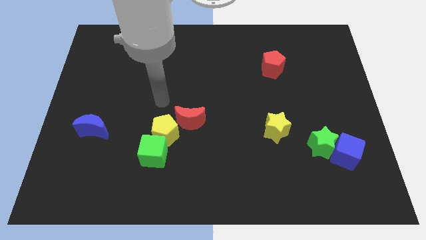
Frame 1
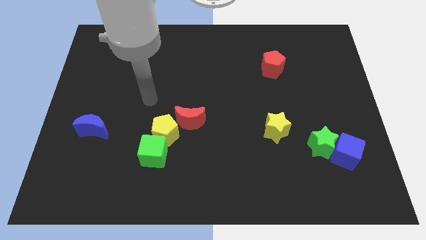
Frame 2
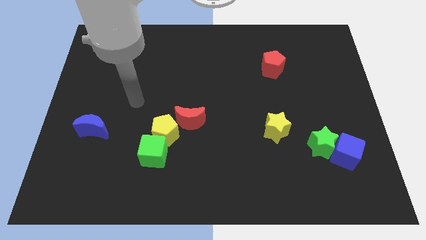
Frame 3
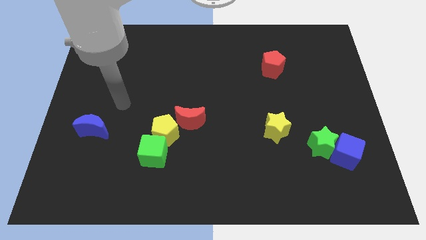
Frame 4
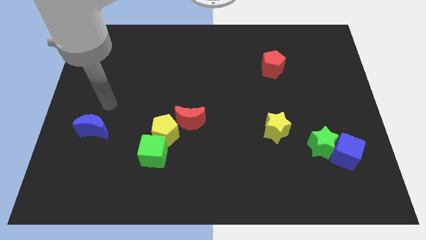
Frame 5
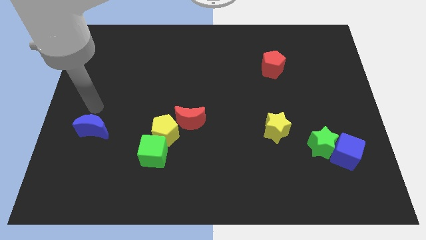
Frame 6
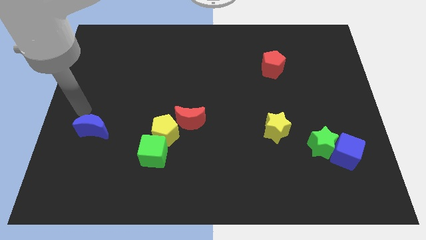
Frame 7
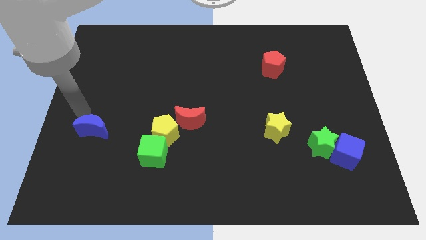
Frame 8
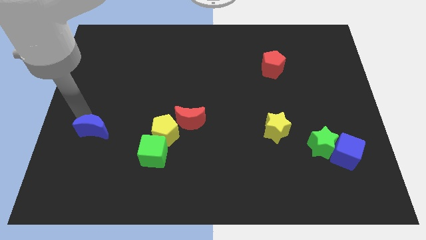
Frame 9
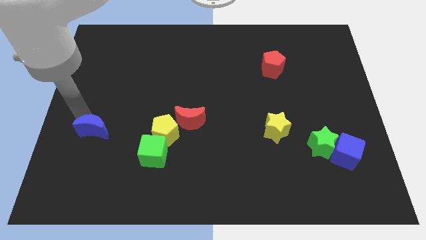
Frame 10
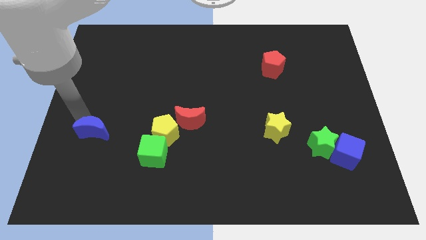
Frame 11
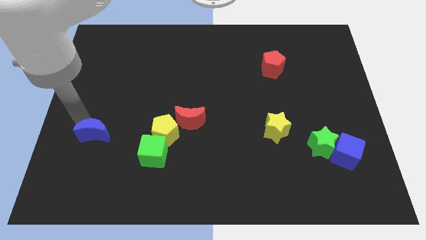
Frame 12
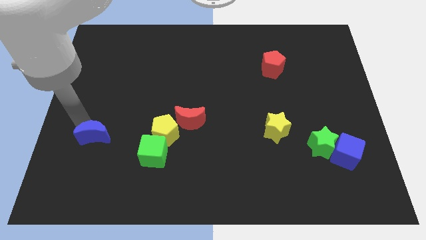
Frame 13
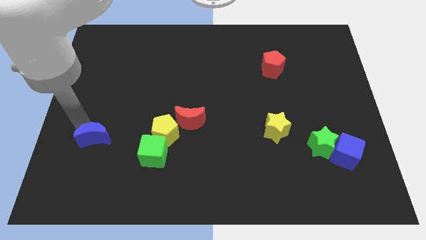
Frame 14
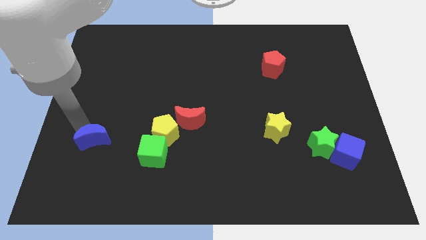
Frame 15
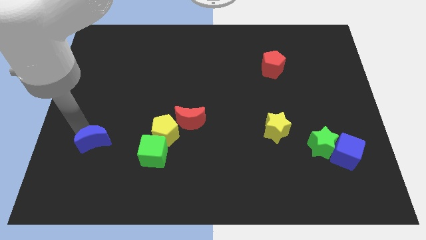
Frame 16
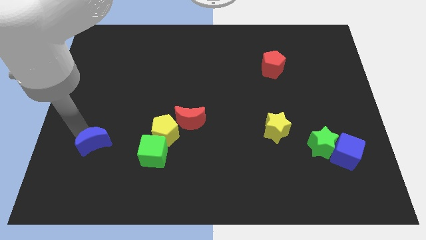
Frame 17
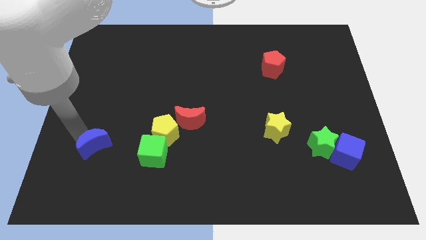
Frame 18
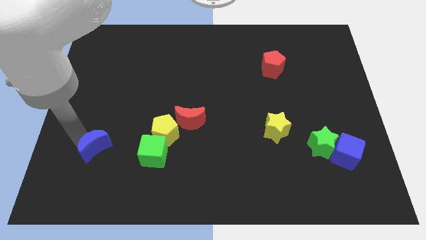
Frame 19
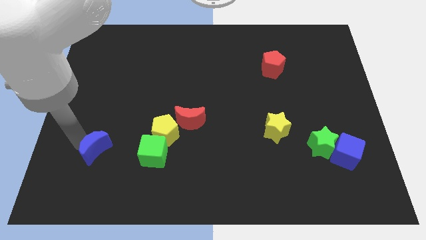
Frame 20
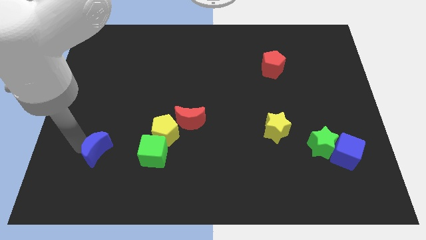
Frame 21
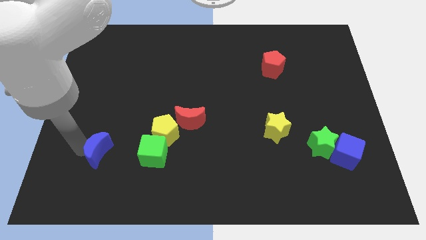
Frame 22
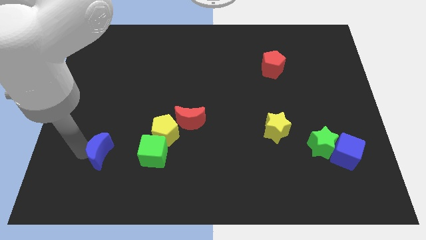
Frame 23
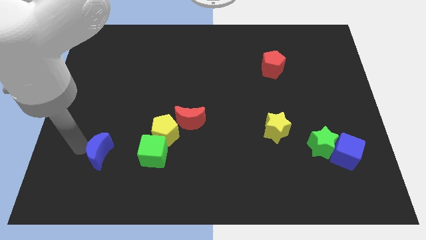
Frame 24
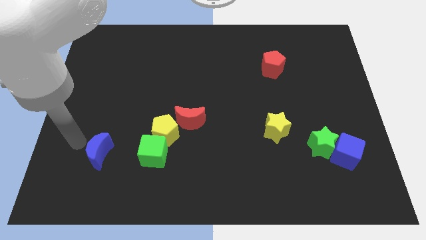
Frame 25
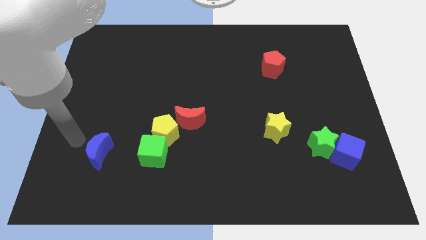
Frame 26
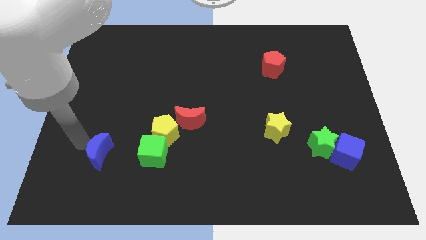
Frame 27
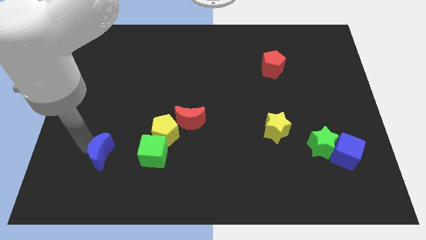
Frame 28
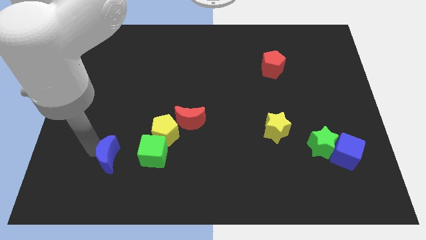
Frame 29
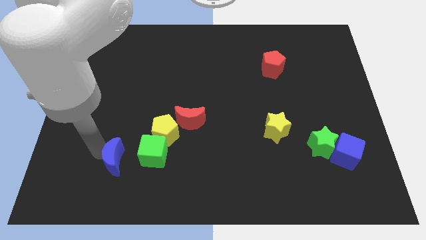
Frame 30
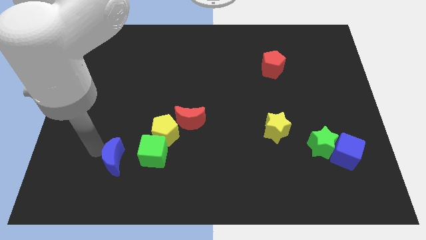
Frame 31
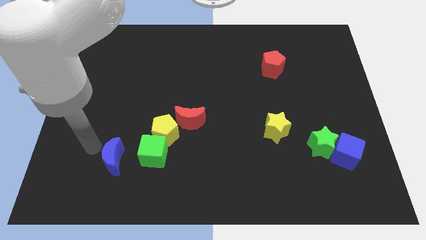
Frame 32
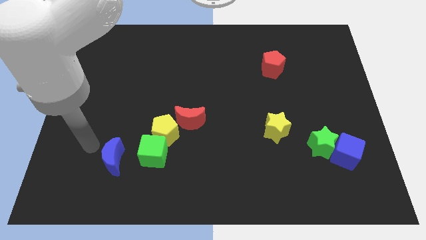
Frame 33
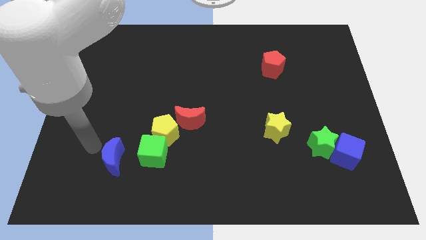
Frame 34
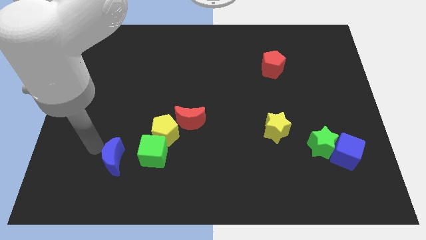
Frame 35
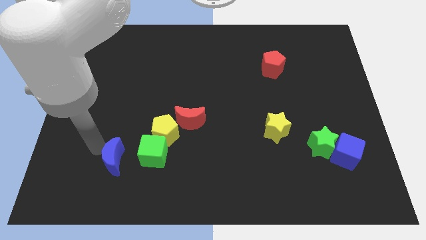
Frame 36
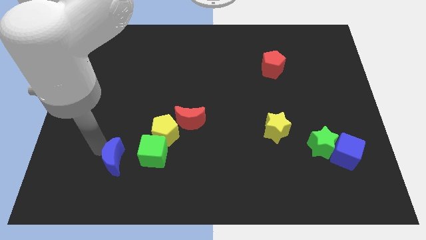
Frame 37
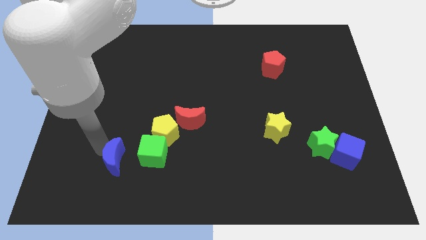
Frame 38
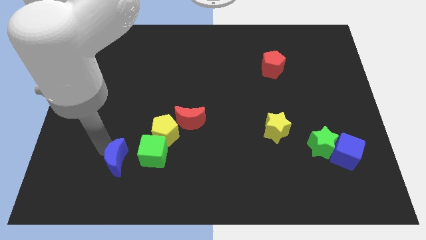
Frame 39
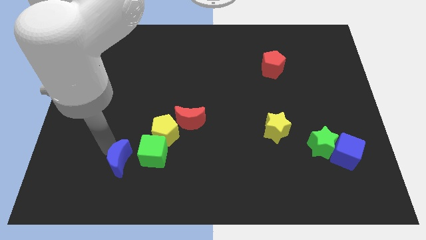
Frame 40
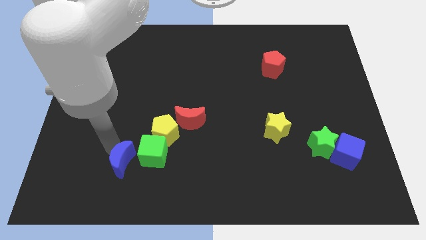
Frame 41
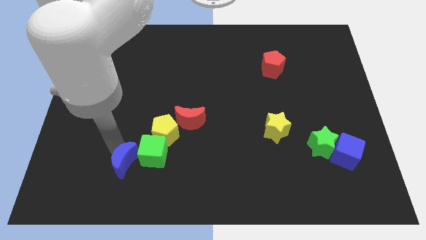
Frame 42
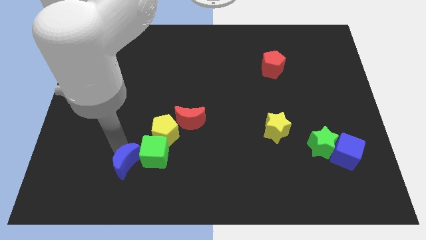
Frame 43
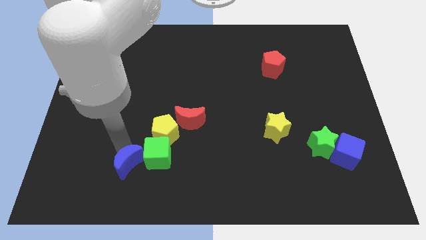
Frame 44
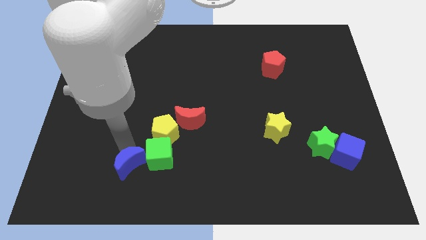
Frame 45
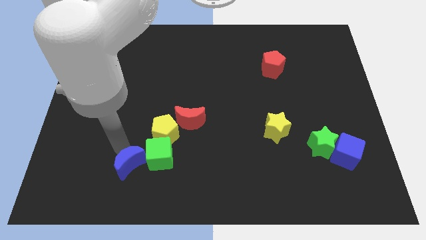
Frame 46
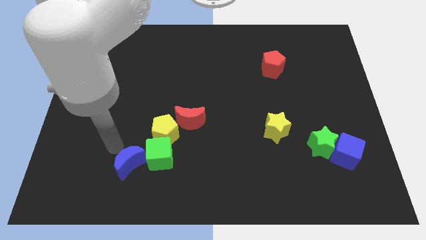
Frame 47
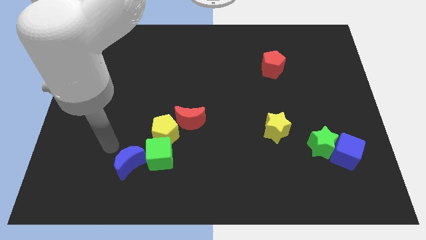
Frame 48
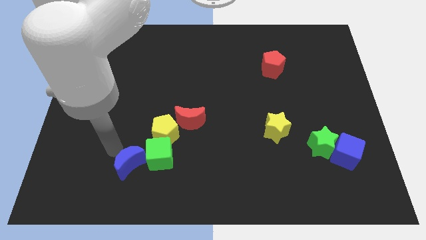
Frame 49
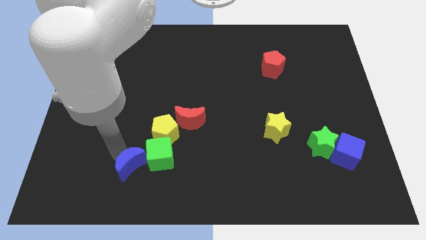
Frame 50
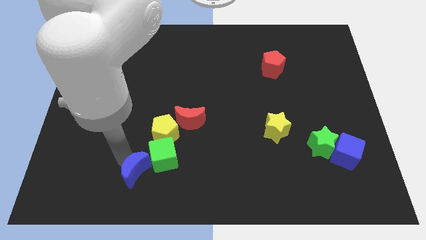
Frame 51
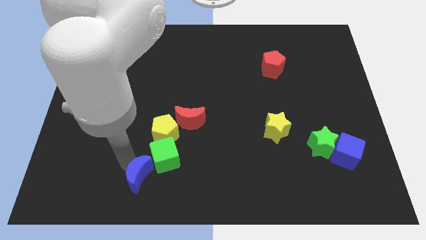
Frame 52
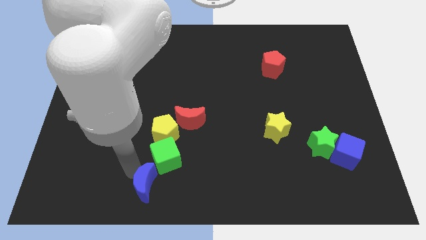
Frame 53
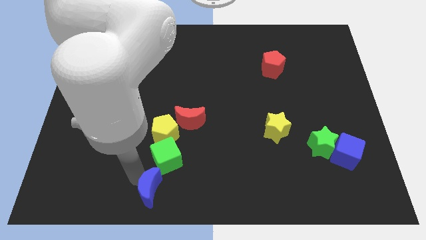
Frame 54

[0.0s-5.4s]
put the blue moon to the bottom

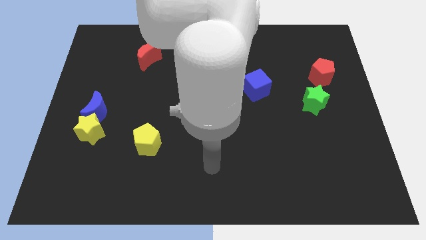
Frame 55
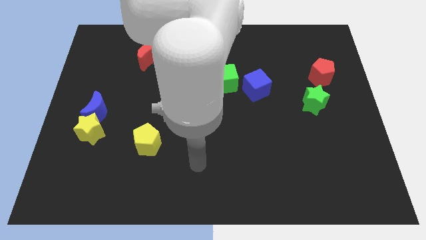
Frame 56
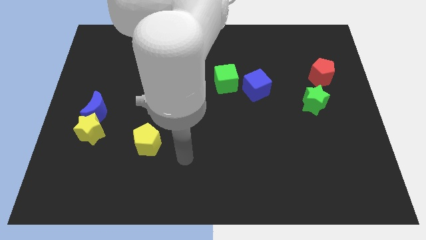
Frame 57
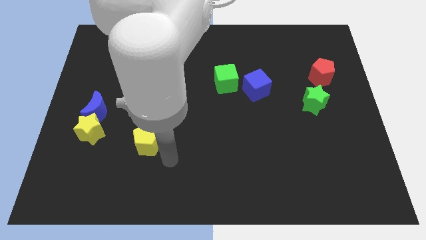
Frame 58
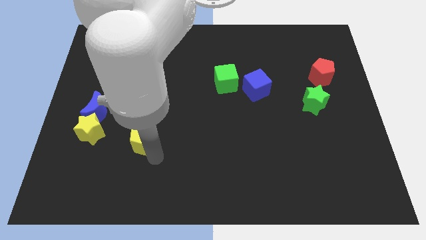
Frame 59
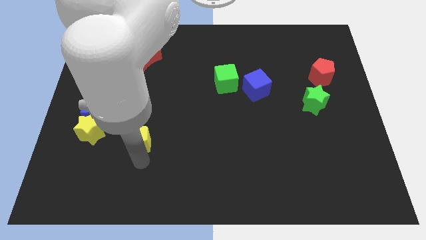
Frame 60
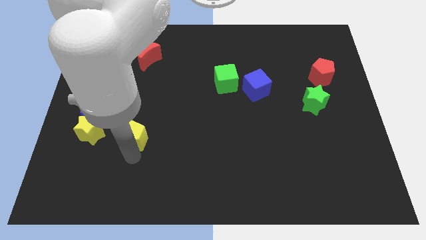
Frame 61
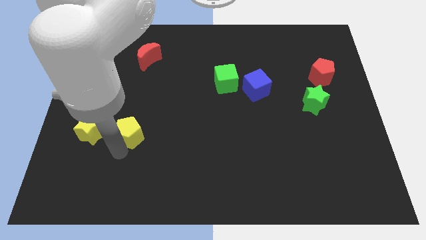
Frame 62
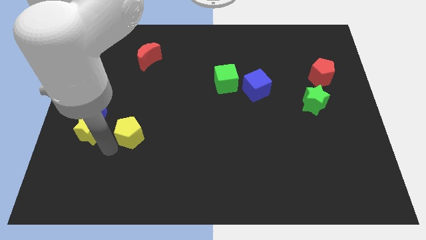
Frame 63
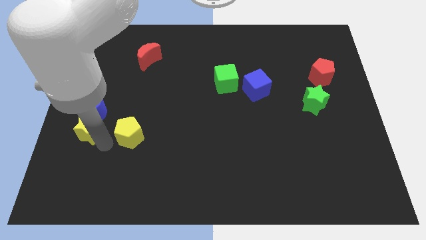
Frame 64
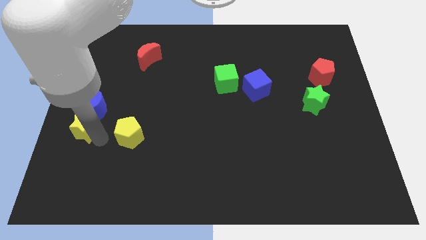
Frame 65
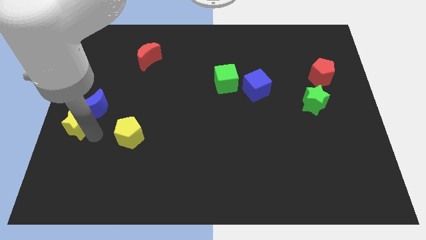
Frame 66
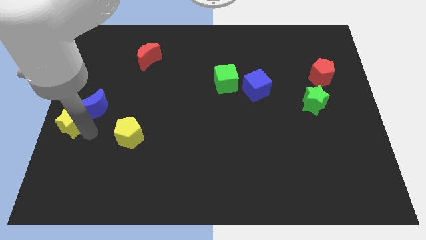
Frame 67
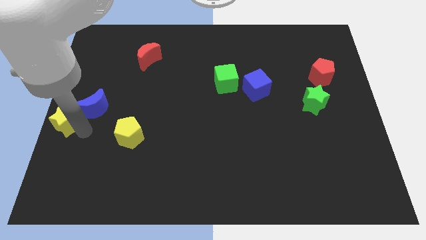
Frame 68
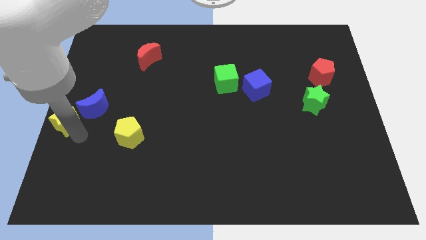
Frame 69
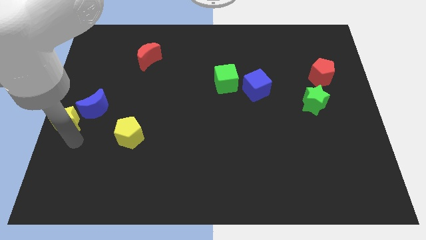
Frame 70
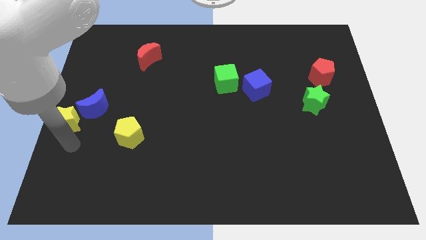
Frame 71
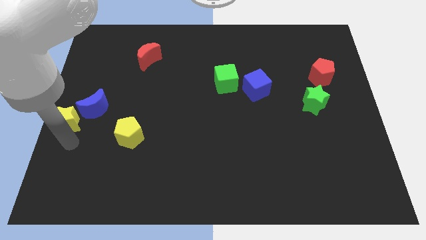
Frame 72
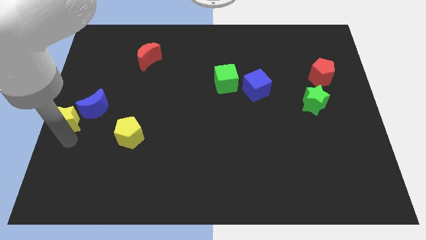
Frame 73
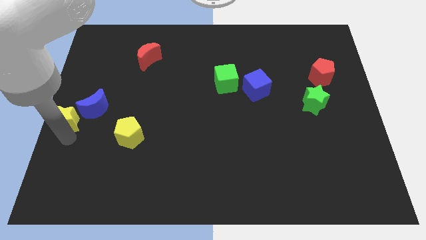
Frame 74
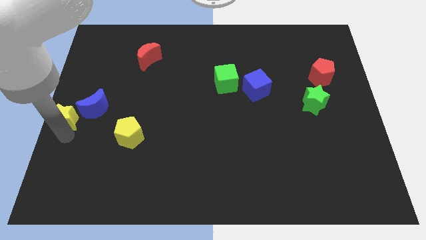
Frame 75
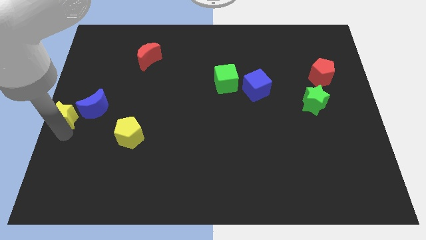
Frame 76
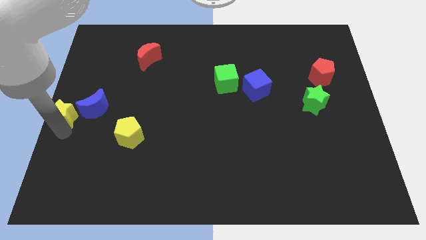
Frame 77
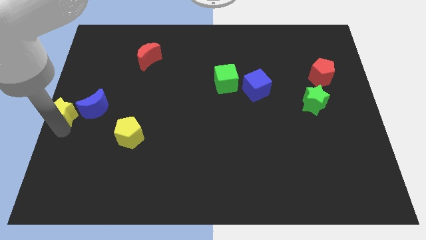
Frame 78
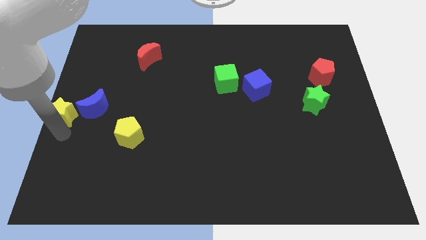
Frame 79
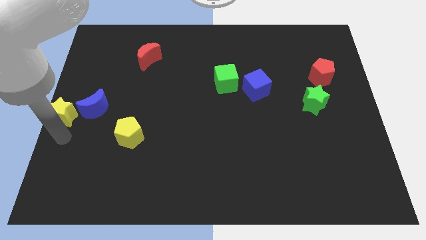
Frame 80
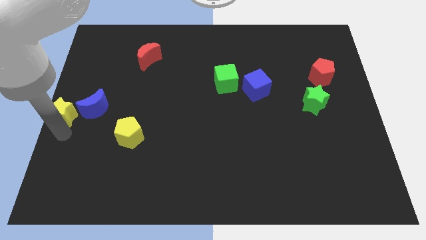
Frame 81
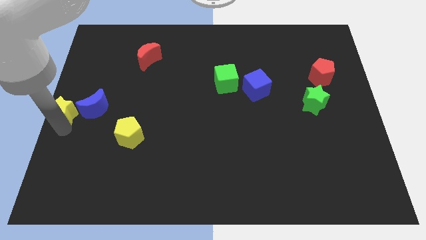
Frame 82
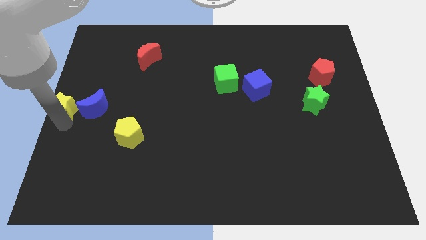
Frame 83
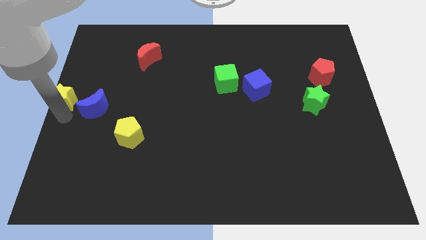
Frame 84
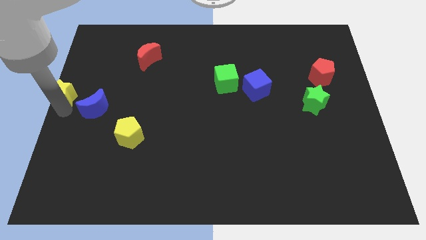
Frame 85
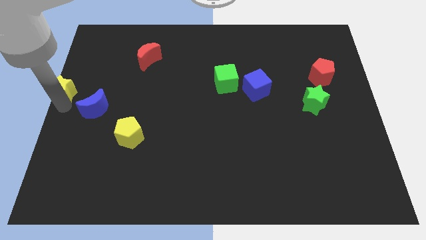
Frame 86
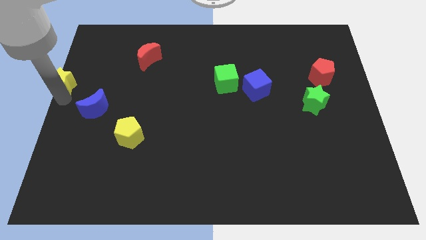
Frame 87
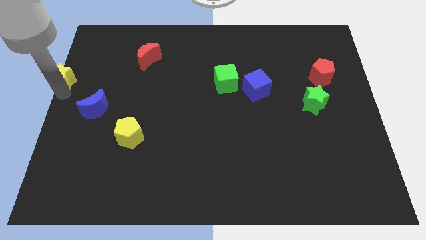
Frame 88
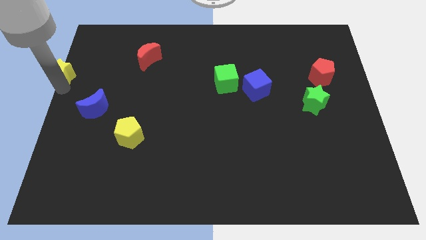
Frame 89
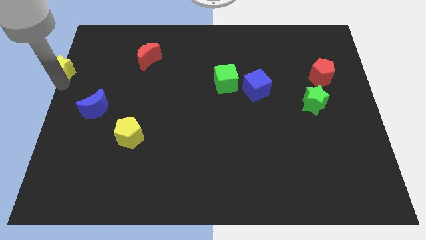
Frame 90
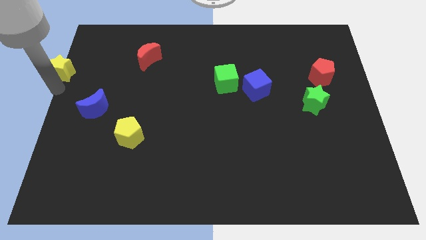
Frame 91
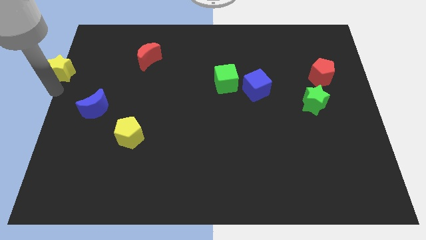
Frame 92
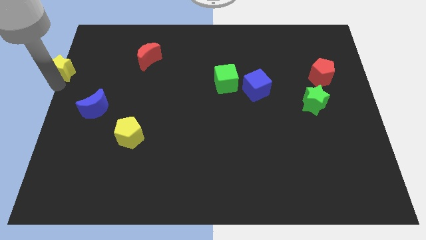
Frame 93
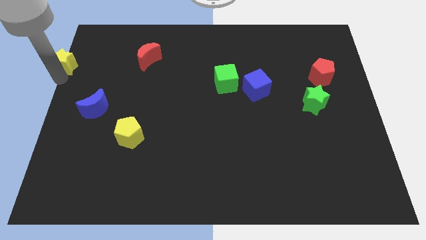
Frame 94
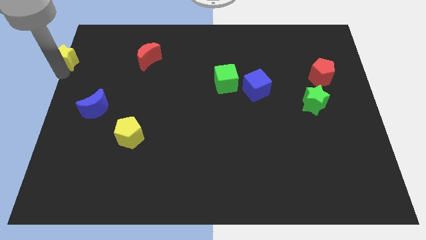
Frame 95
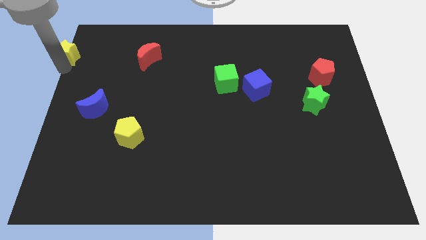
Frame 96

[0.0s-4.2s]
slide the yellow star to the top left of the board
